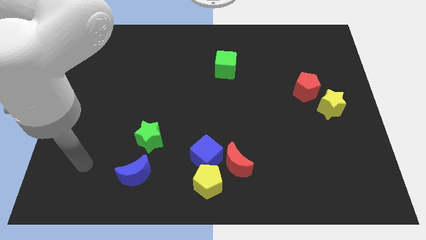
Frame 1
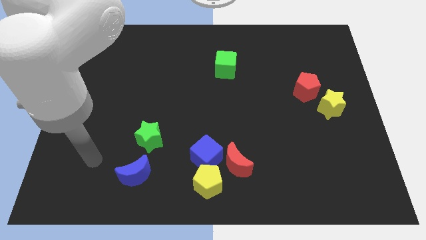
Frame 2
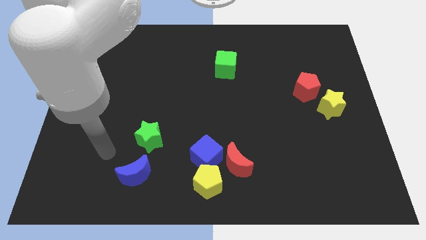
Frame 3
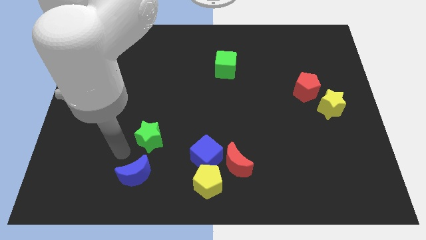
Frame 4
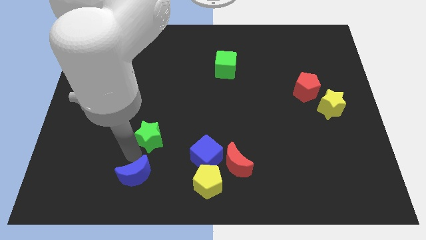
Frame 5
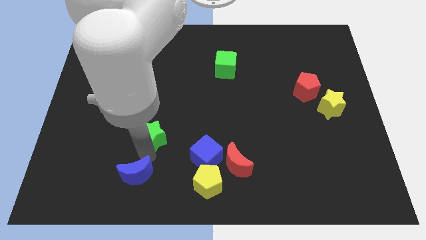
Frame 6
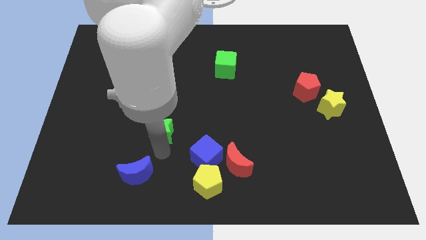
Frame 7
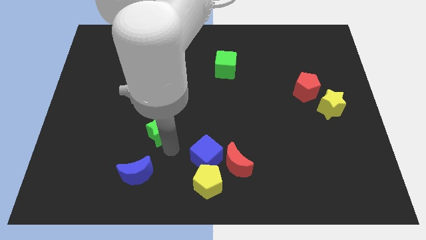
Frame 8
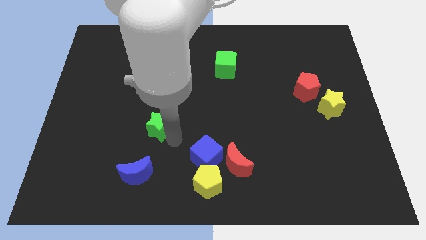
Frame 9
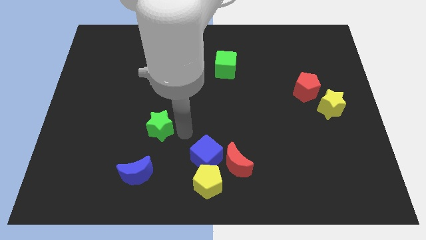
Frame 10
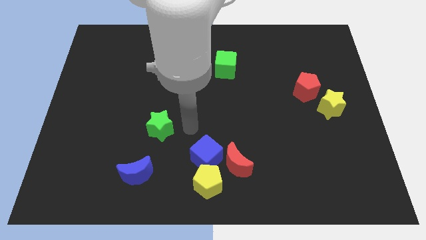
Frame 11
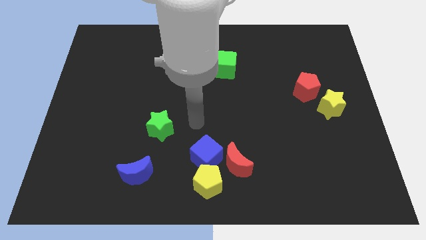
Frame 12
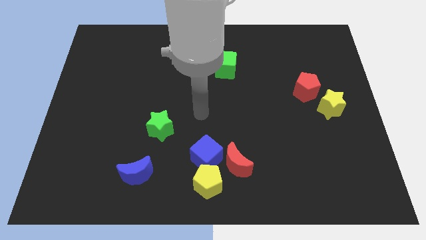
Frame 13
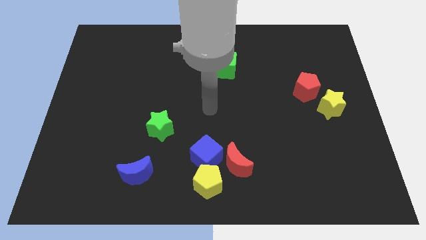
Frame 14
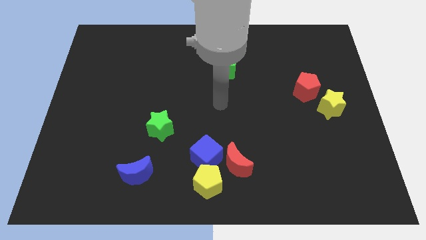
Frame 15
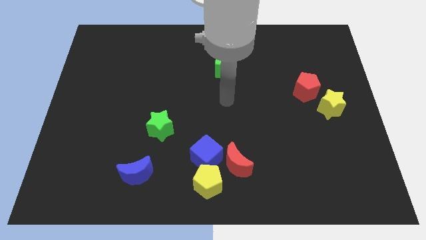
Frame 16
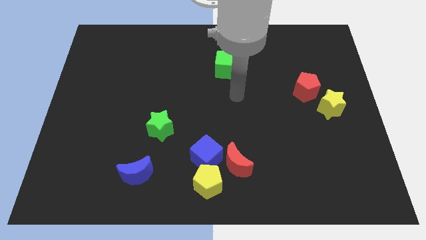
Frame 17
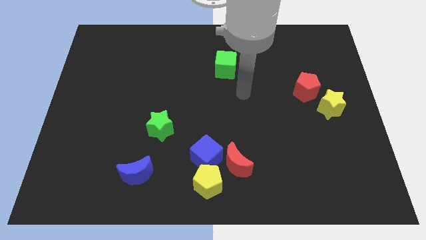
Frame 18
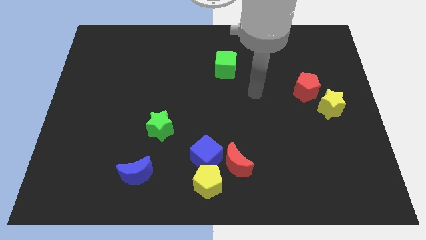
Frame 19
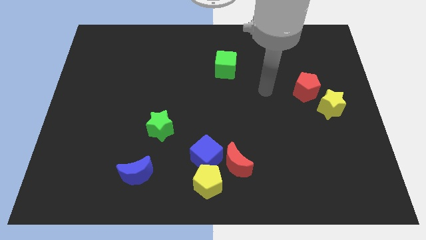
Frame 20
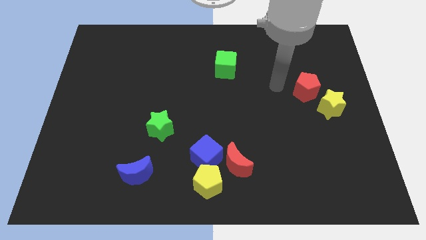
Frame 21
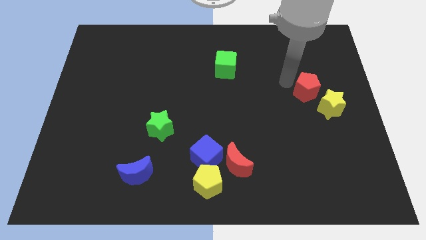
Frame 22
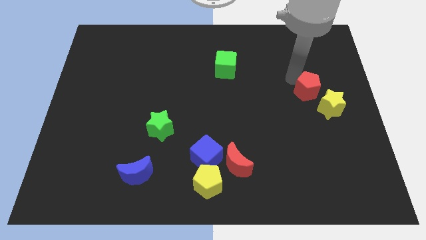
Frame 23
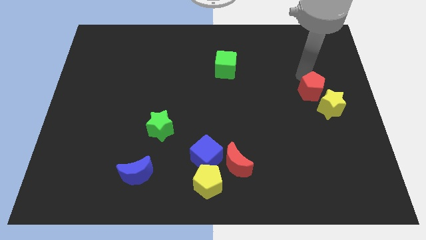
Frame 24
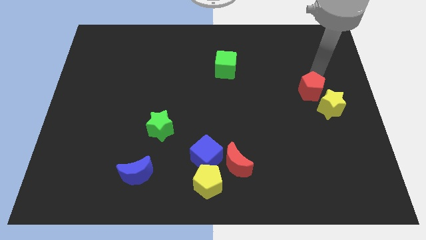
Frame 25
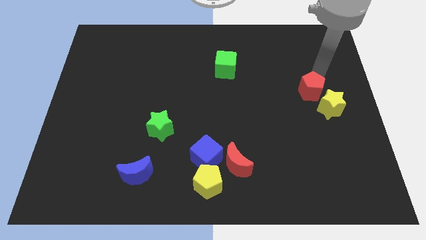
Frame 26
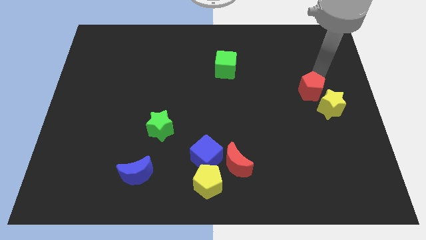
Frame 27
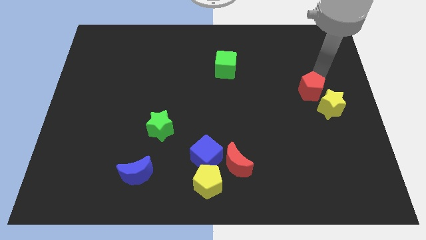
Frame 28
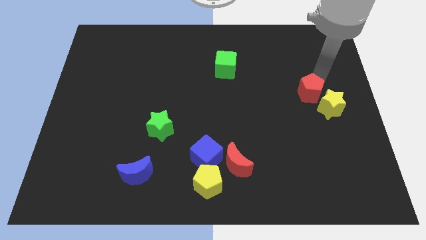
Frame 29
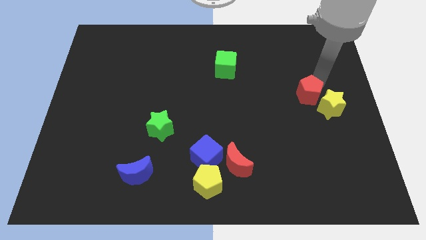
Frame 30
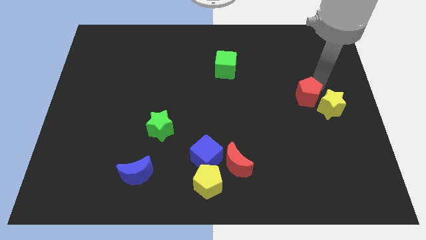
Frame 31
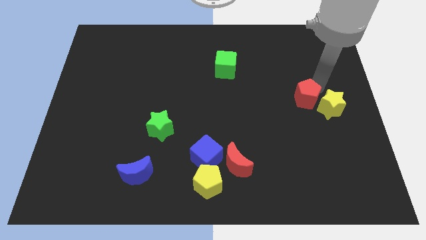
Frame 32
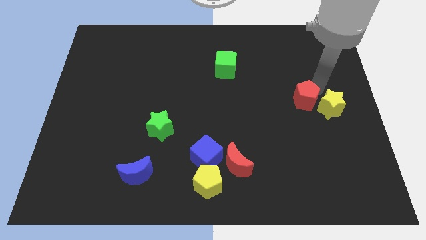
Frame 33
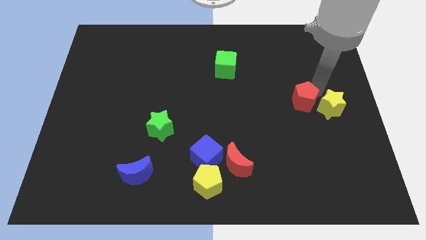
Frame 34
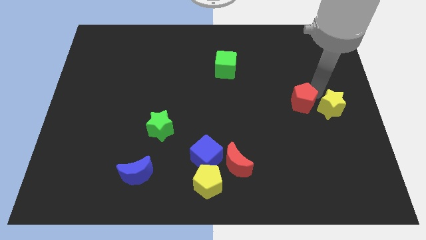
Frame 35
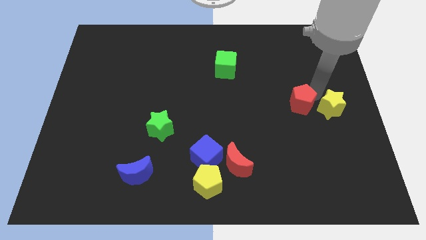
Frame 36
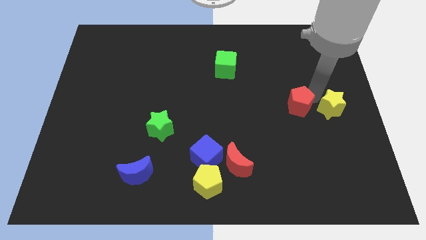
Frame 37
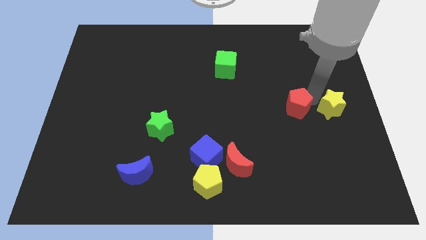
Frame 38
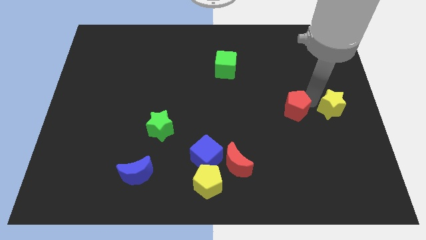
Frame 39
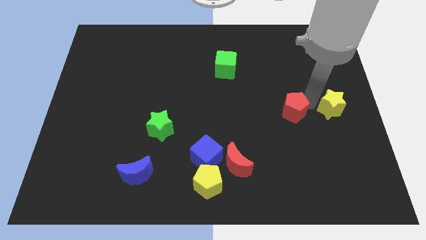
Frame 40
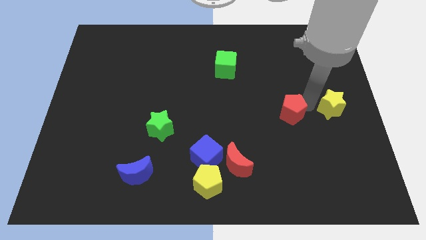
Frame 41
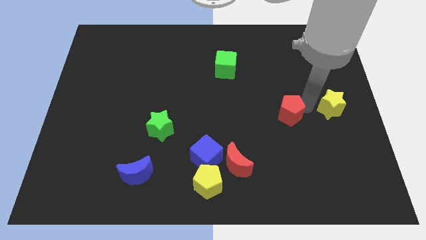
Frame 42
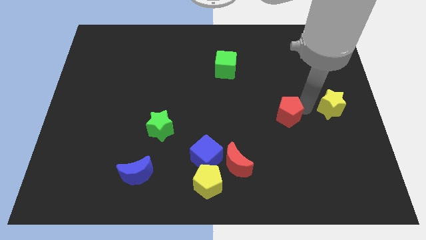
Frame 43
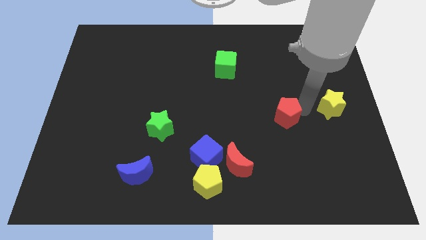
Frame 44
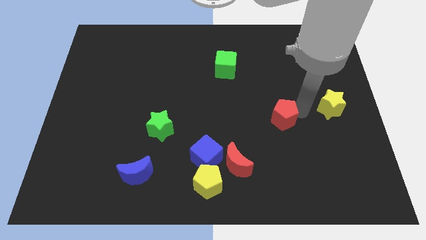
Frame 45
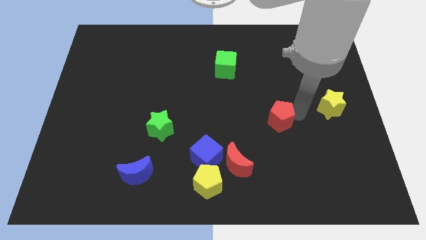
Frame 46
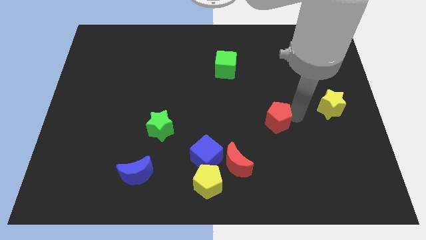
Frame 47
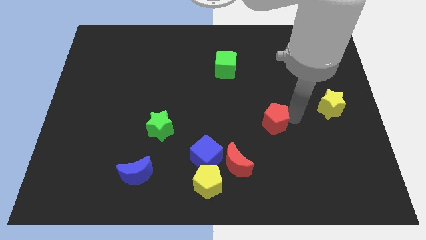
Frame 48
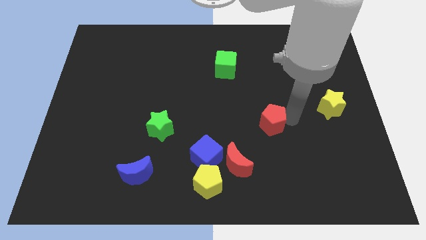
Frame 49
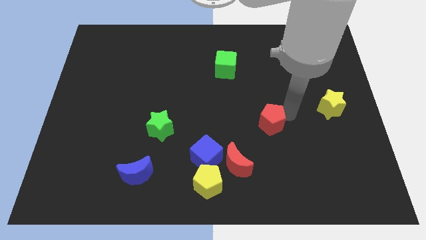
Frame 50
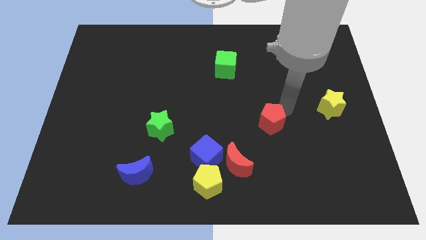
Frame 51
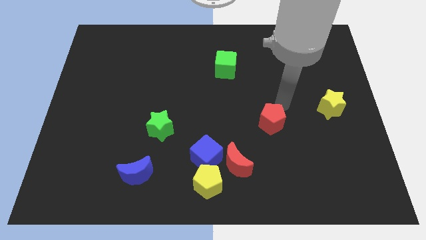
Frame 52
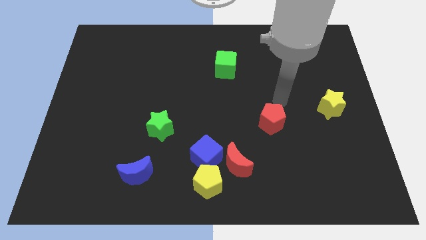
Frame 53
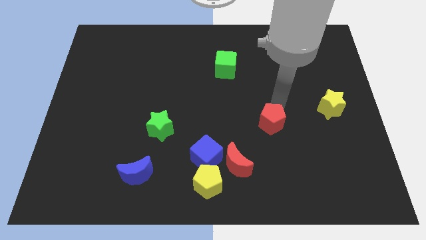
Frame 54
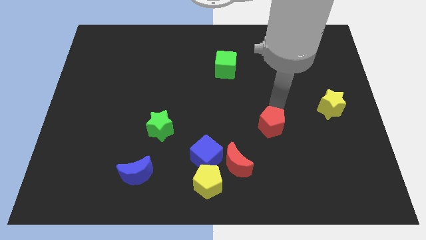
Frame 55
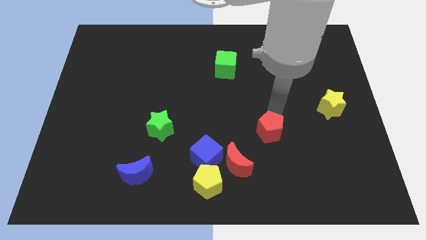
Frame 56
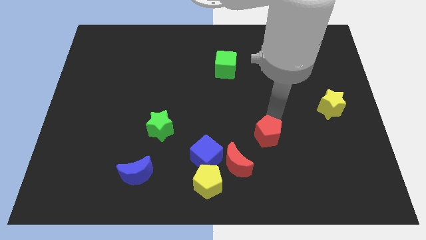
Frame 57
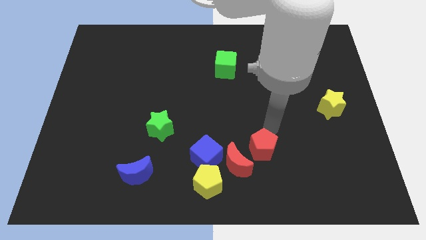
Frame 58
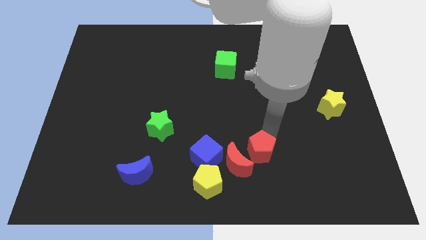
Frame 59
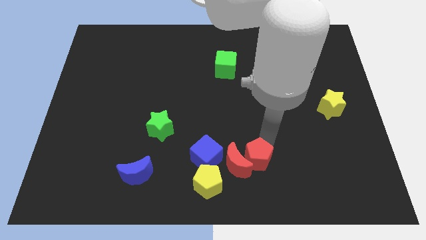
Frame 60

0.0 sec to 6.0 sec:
put the red pentagon next to the red moon
